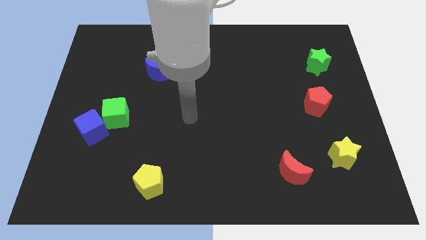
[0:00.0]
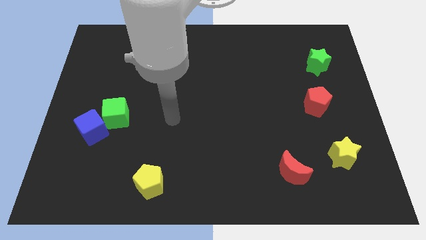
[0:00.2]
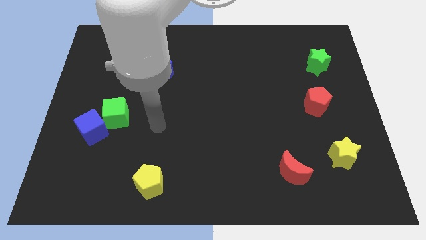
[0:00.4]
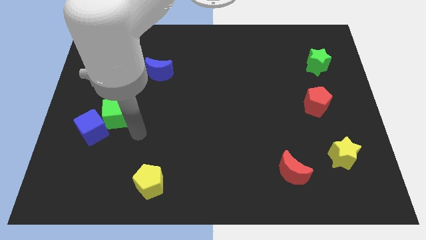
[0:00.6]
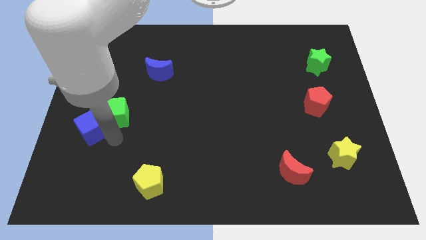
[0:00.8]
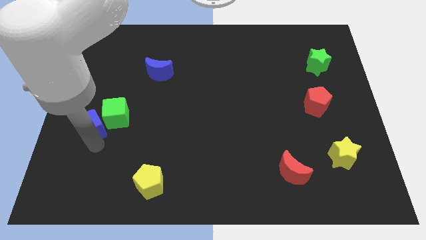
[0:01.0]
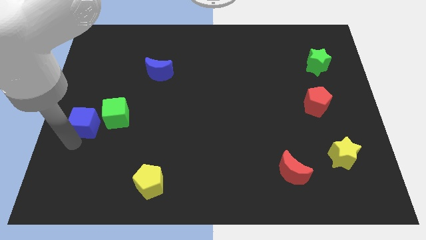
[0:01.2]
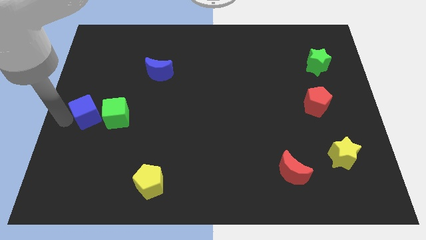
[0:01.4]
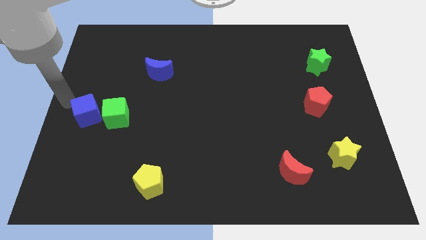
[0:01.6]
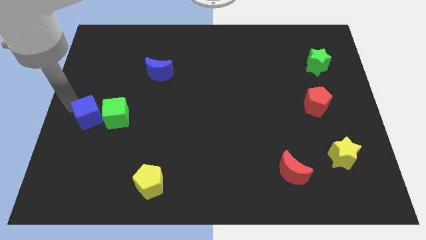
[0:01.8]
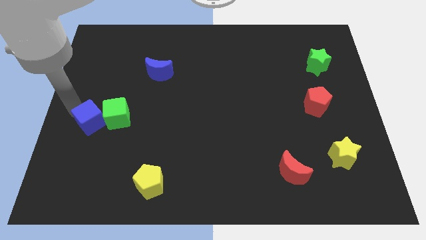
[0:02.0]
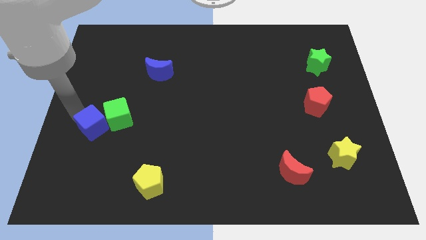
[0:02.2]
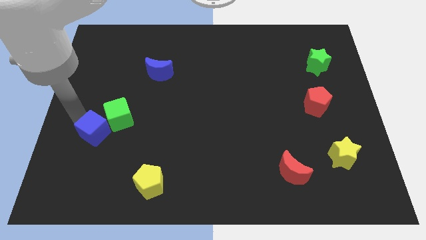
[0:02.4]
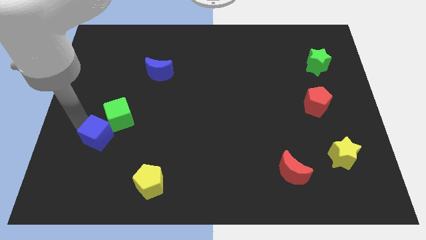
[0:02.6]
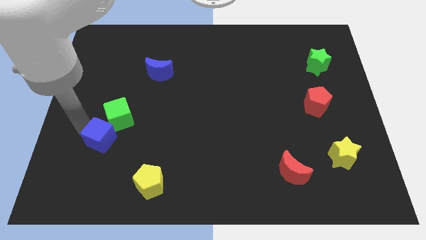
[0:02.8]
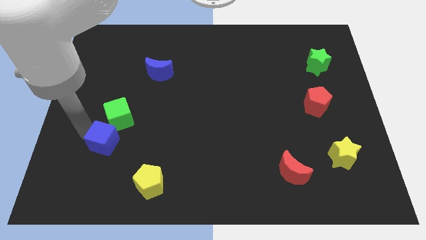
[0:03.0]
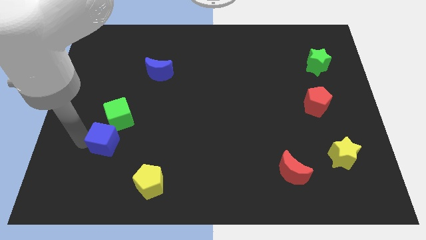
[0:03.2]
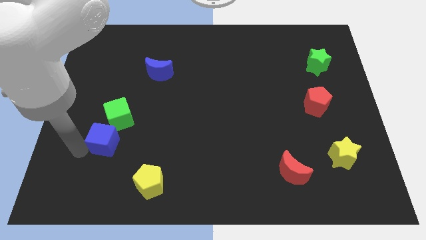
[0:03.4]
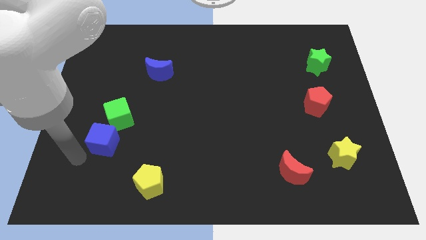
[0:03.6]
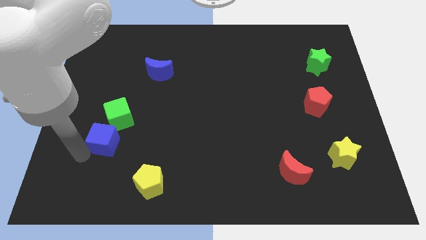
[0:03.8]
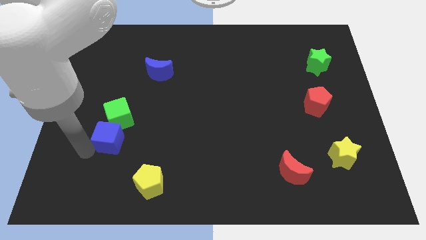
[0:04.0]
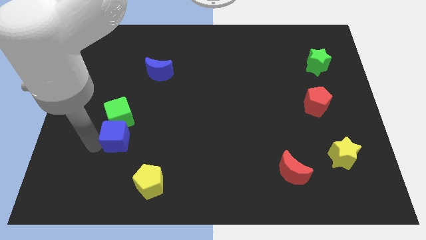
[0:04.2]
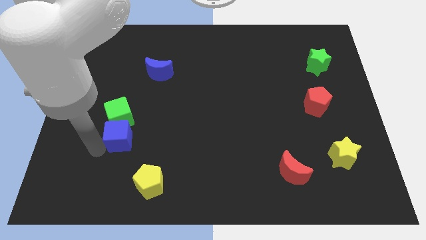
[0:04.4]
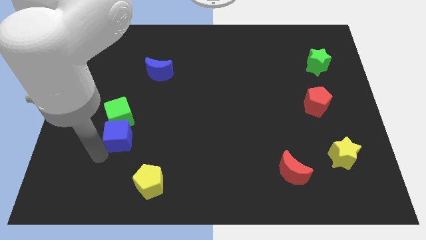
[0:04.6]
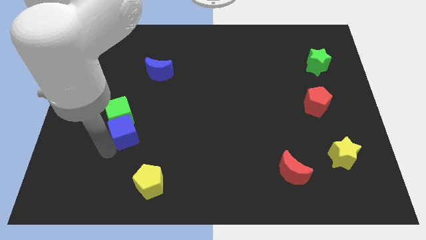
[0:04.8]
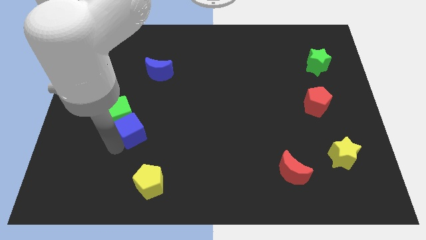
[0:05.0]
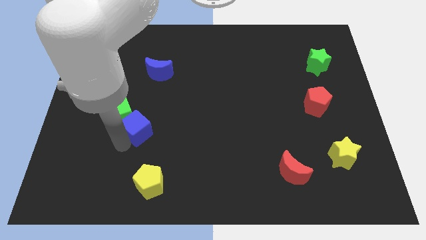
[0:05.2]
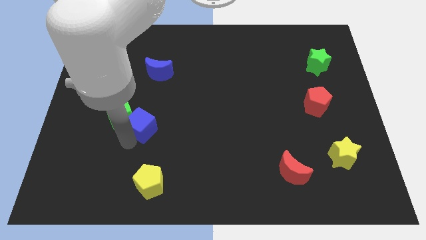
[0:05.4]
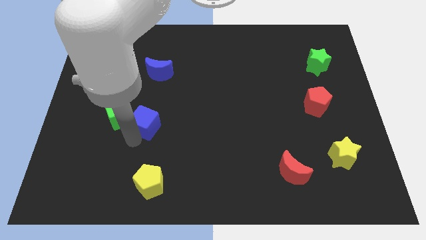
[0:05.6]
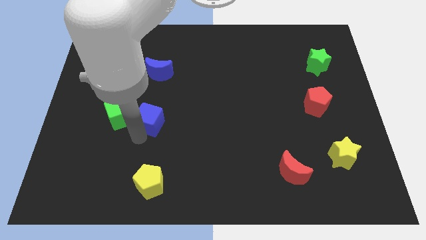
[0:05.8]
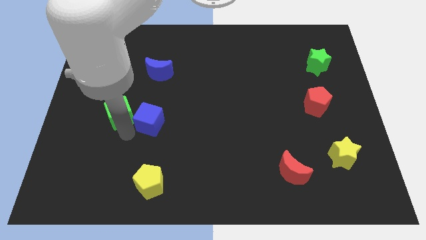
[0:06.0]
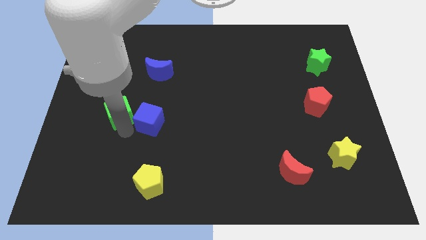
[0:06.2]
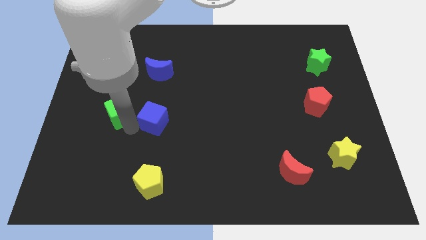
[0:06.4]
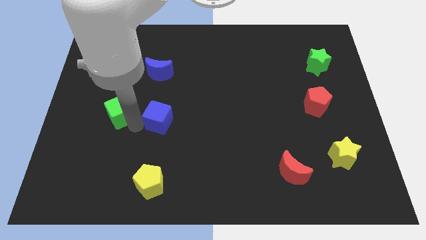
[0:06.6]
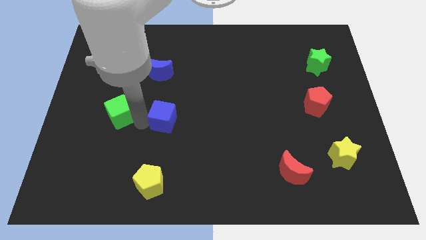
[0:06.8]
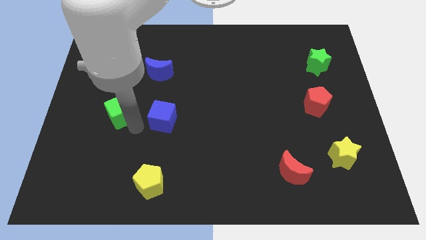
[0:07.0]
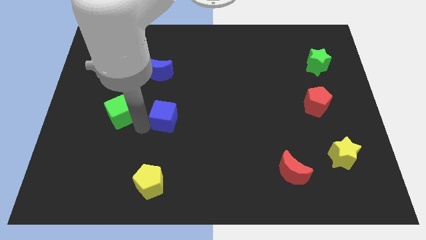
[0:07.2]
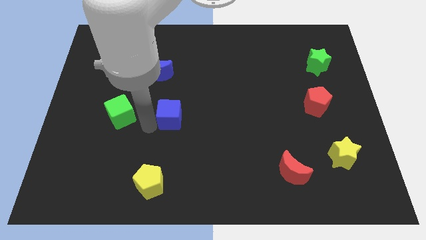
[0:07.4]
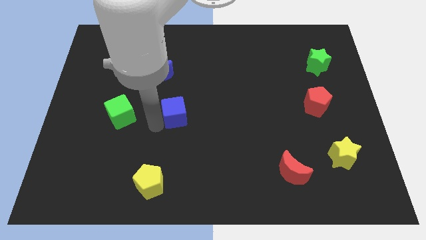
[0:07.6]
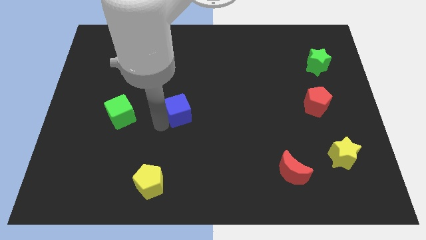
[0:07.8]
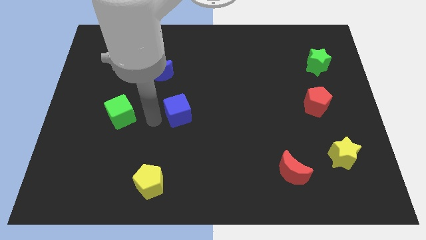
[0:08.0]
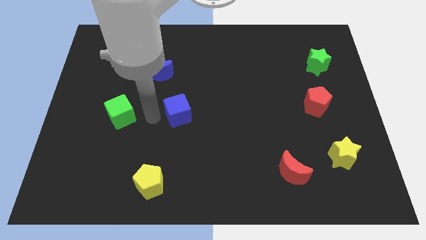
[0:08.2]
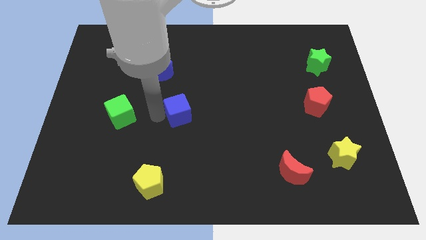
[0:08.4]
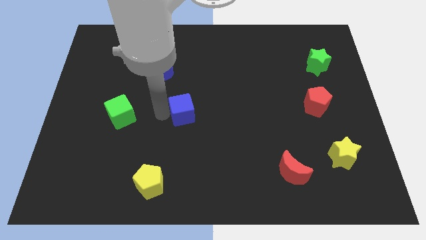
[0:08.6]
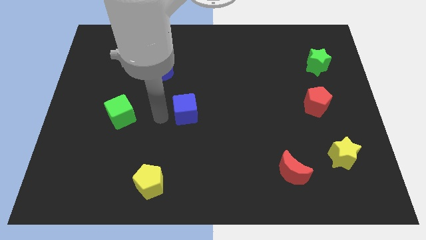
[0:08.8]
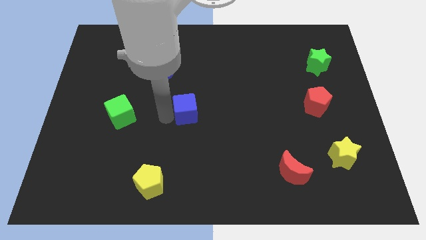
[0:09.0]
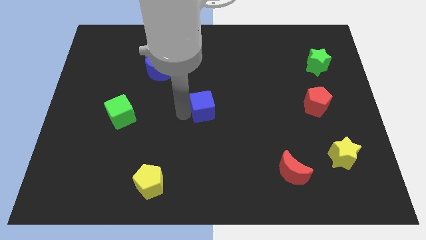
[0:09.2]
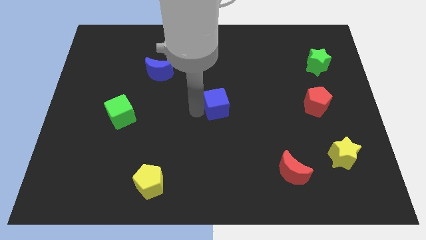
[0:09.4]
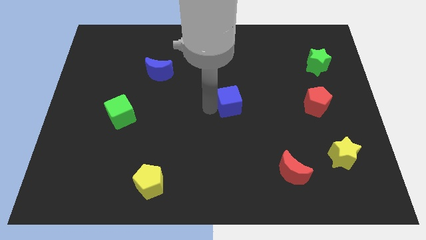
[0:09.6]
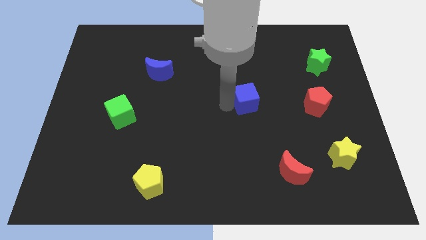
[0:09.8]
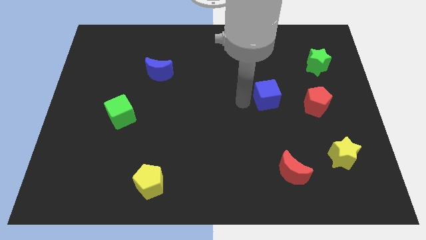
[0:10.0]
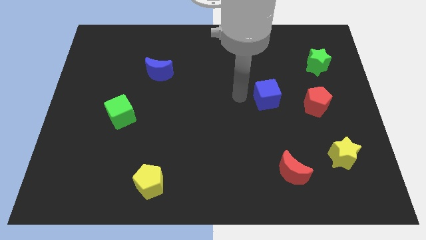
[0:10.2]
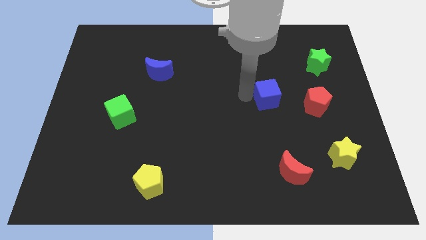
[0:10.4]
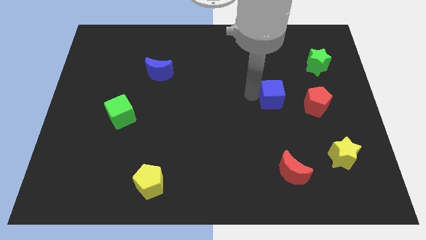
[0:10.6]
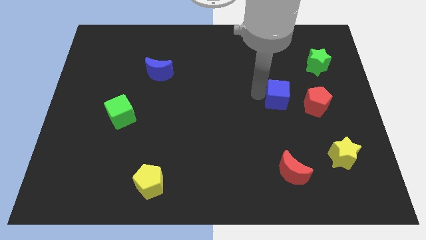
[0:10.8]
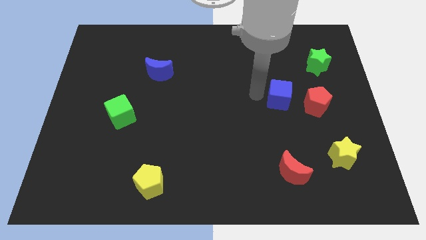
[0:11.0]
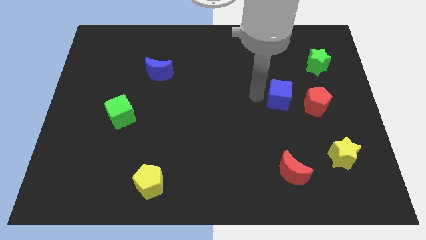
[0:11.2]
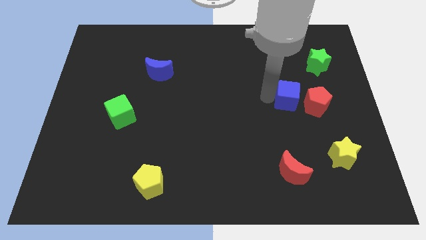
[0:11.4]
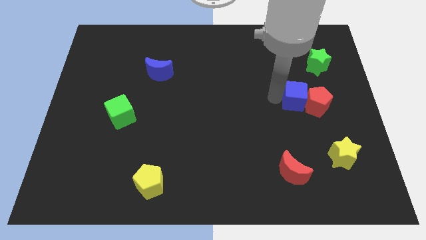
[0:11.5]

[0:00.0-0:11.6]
put the blue cube next to the red pentagon
